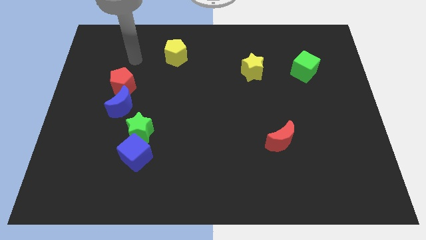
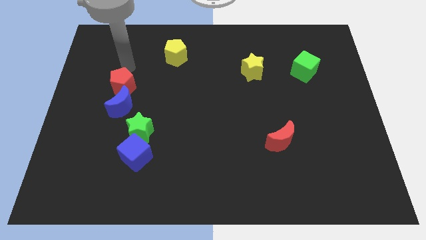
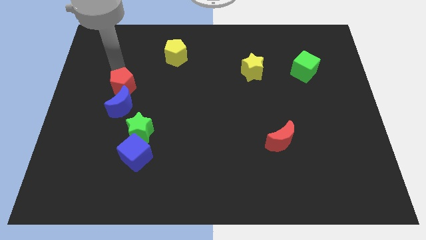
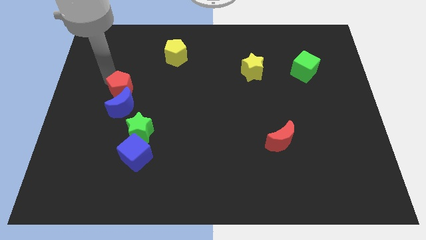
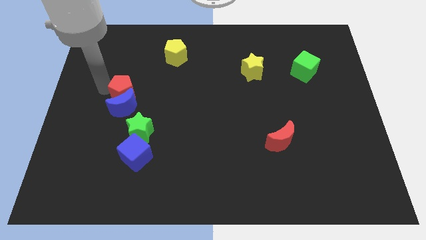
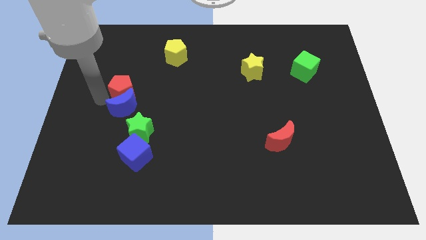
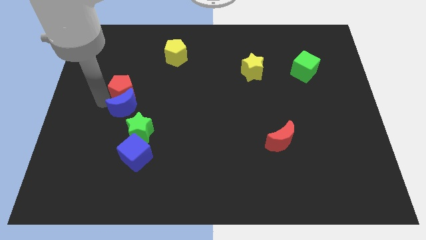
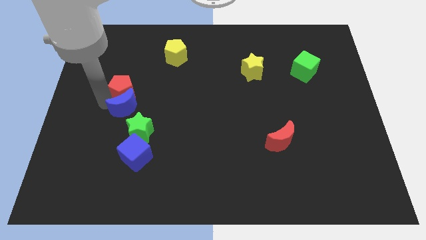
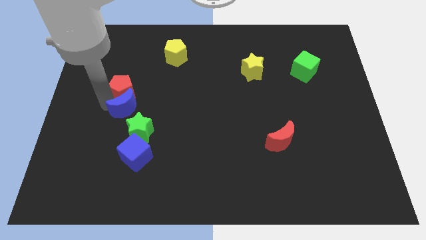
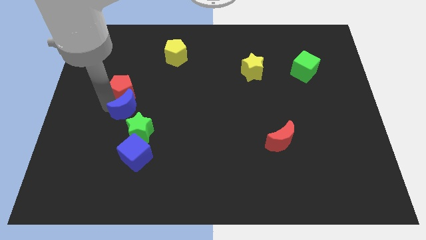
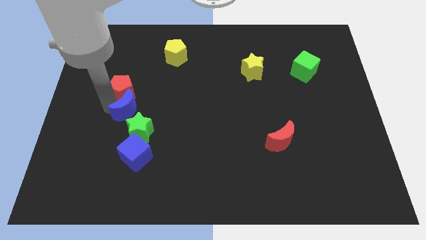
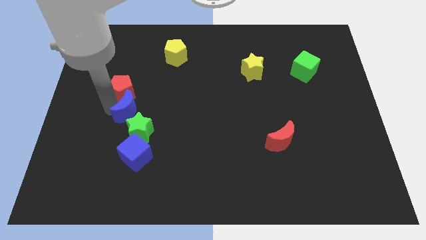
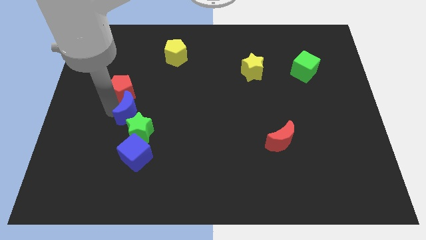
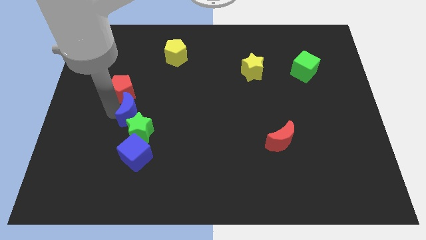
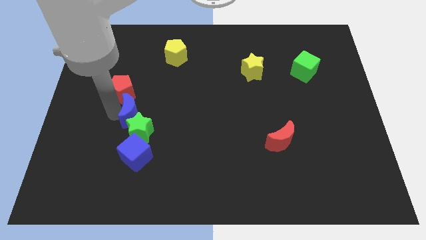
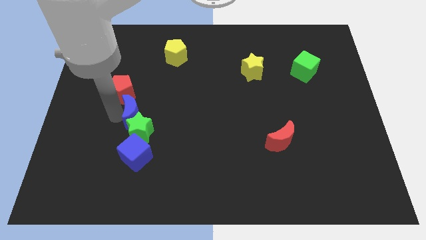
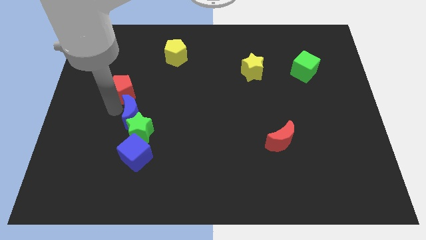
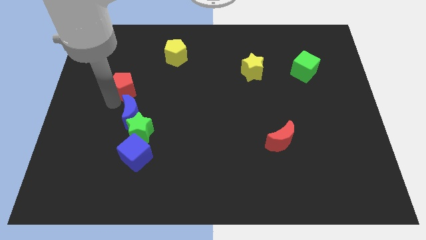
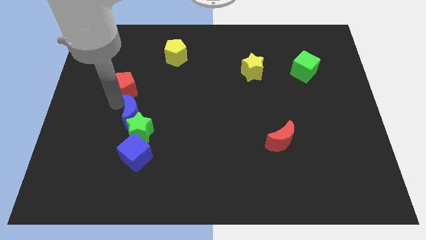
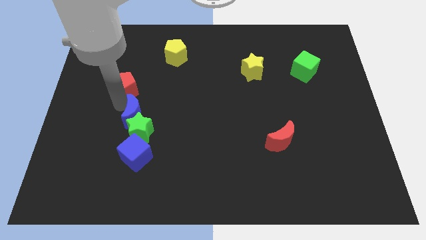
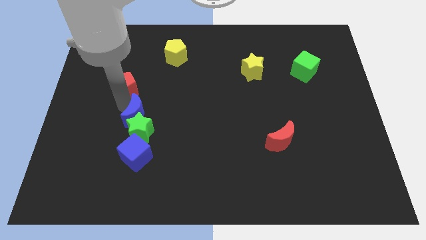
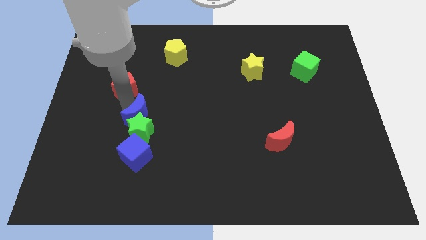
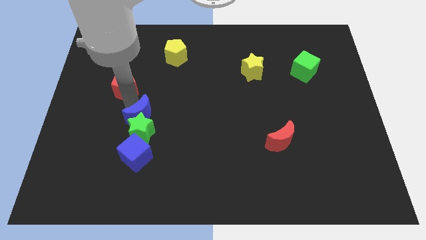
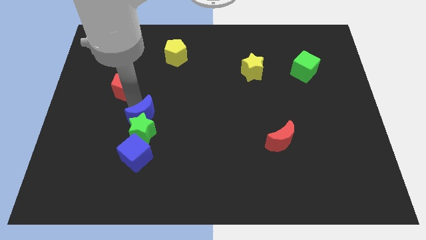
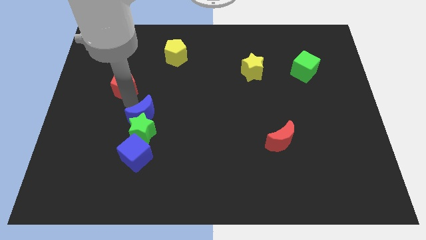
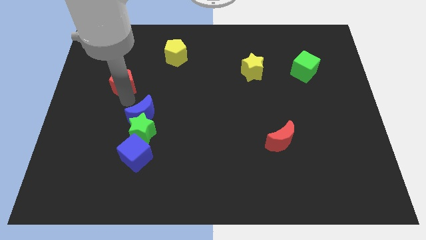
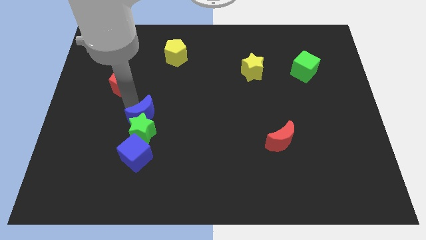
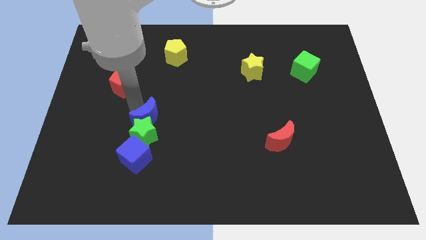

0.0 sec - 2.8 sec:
slightly slide the blue moon down and to the right diagonally

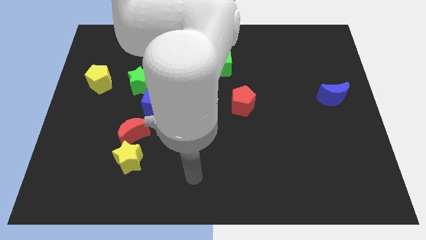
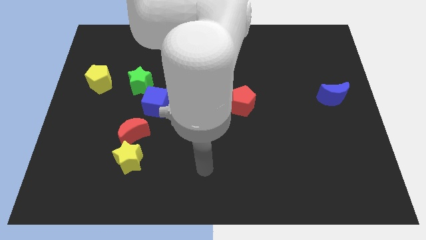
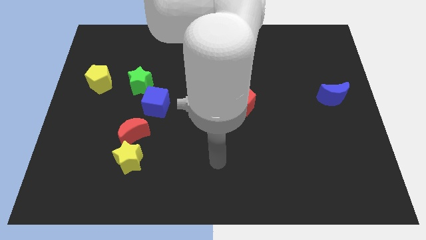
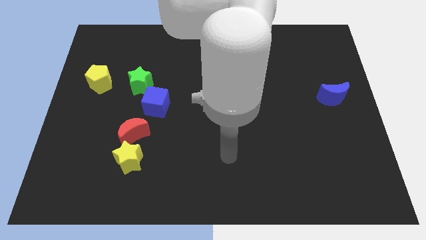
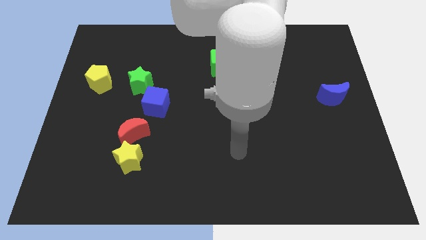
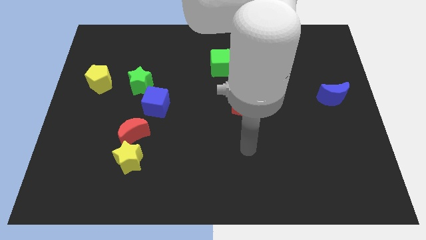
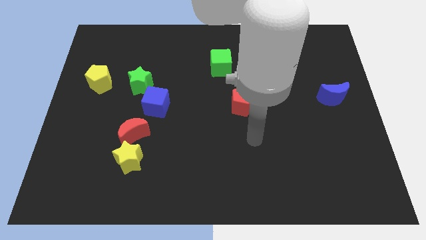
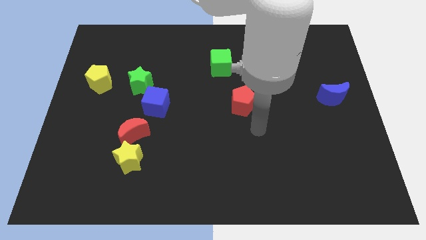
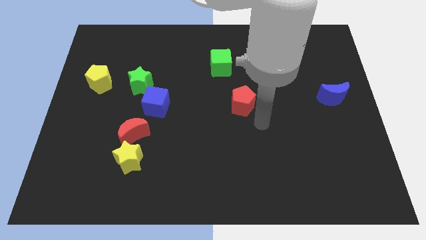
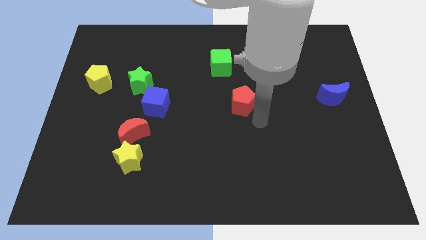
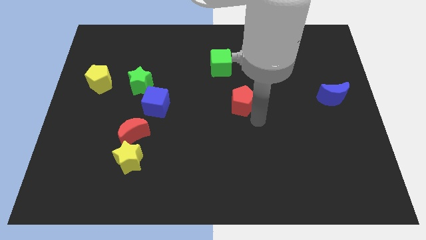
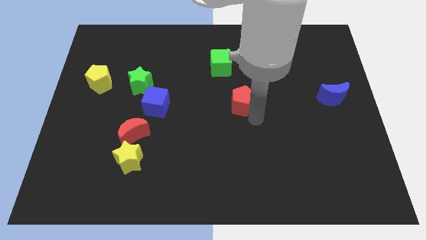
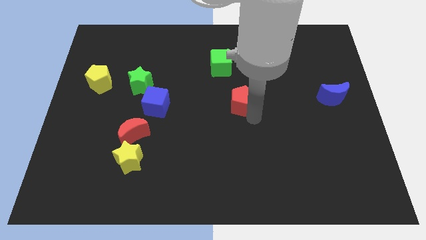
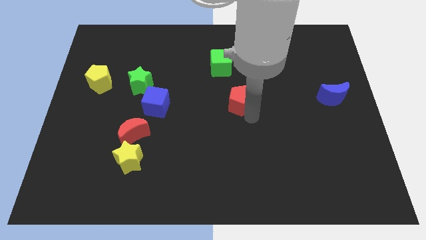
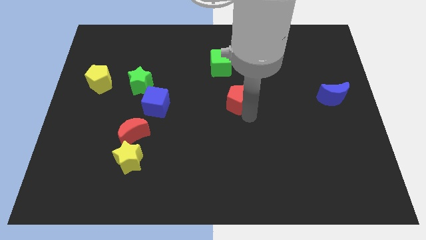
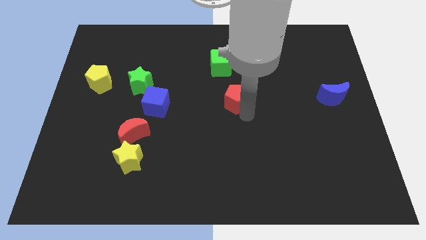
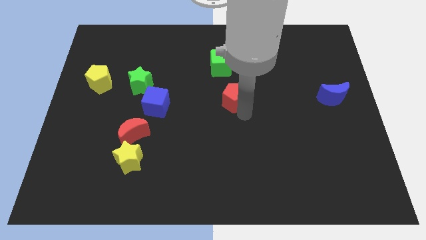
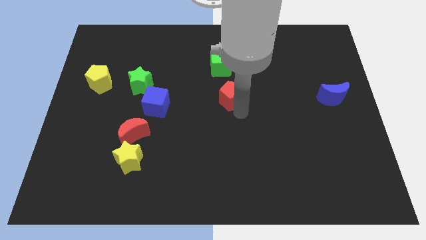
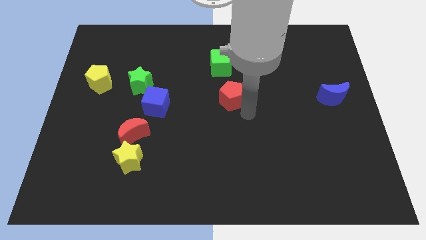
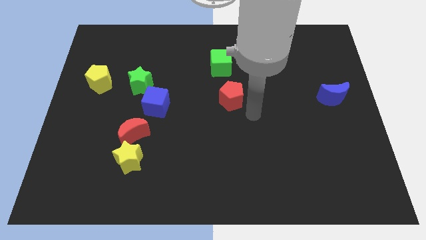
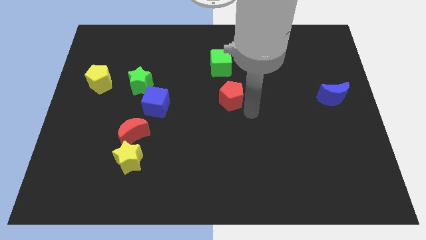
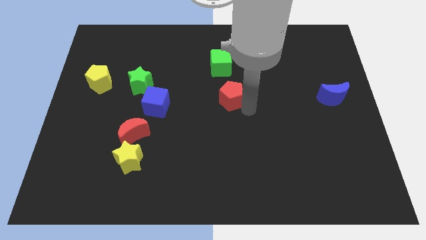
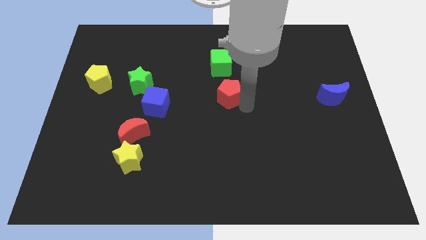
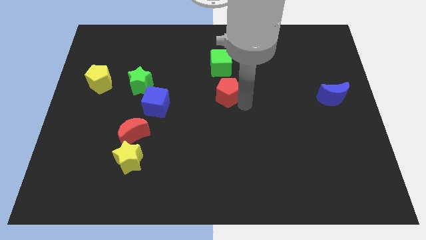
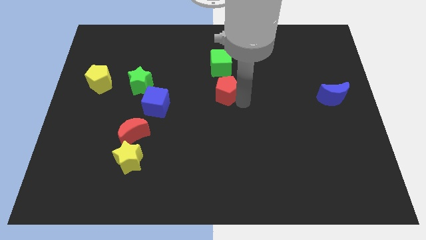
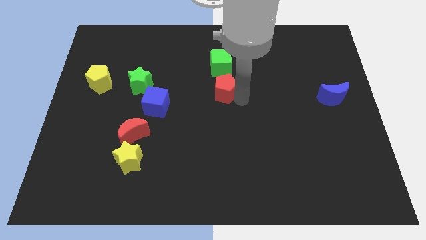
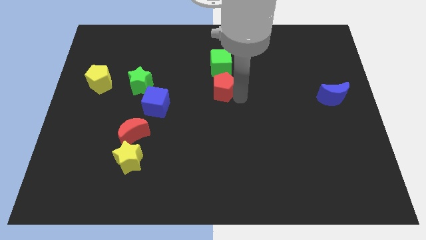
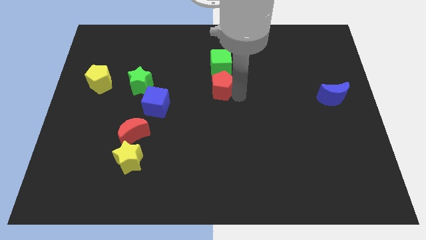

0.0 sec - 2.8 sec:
slide the red pentagon slightly upwards and to the left

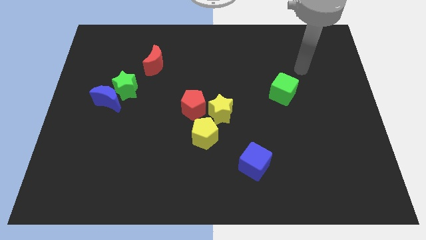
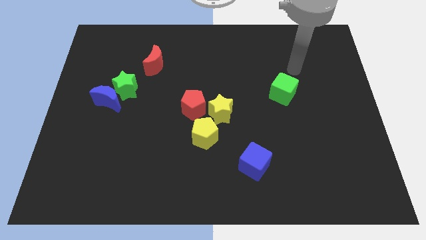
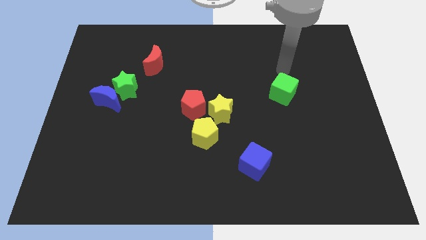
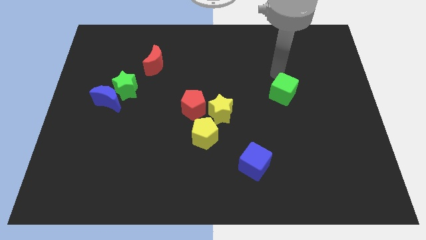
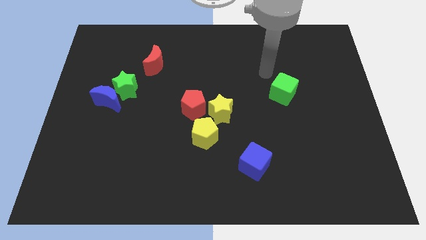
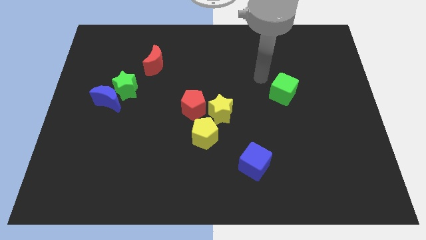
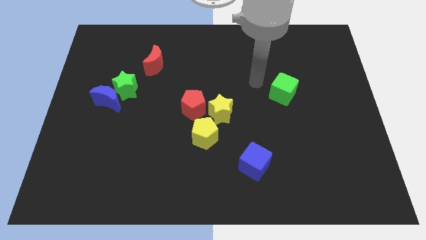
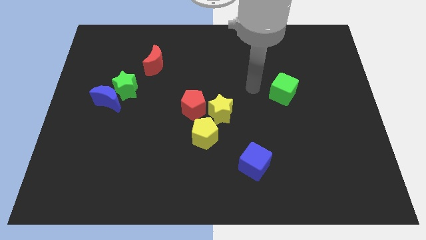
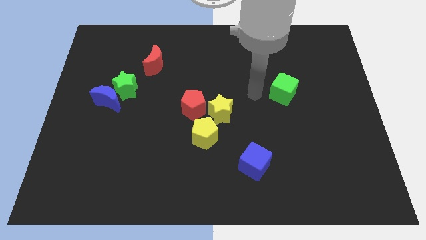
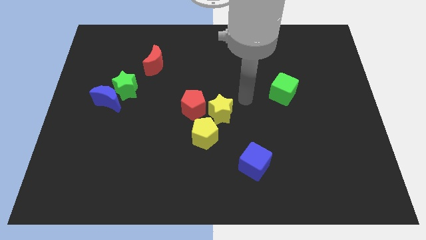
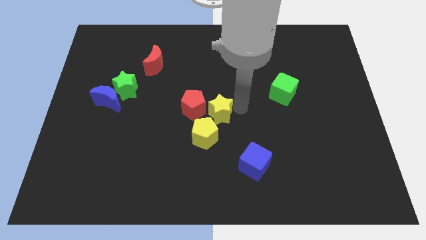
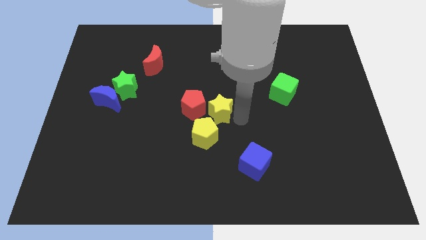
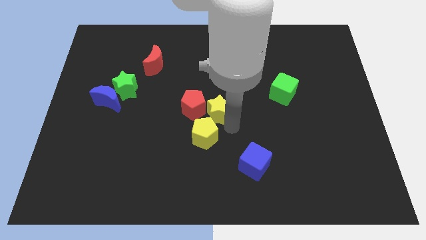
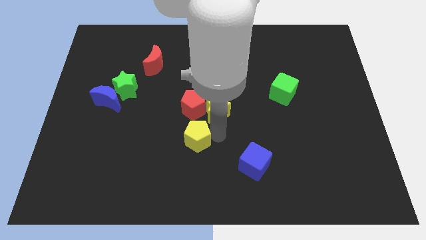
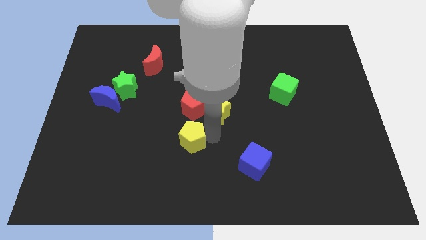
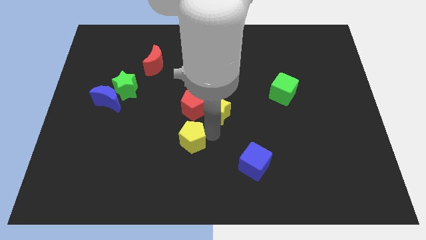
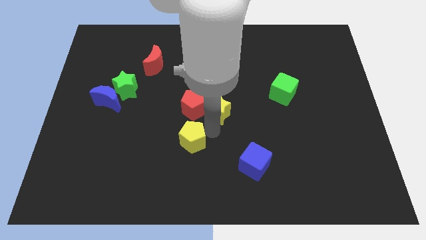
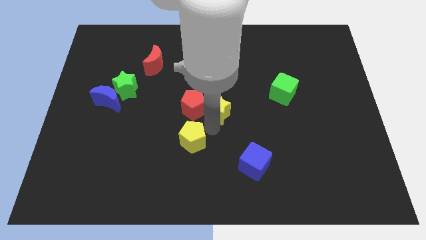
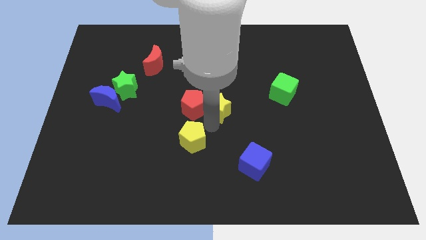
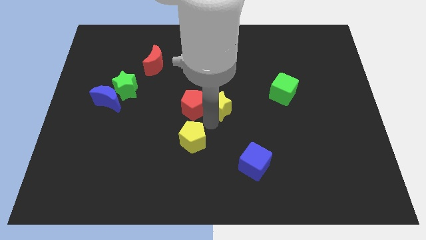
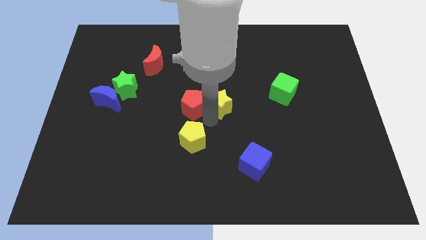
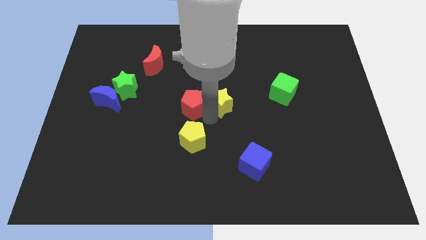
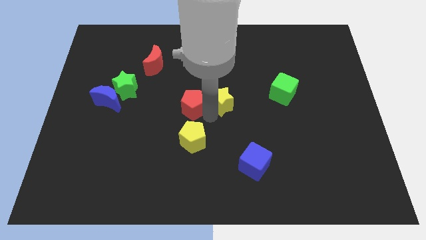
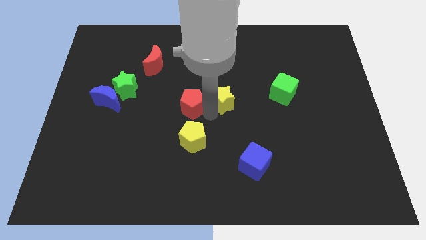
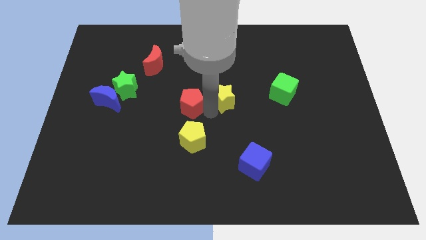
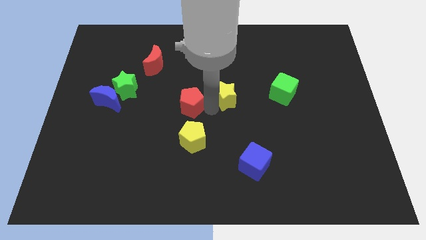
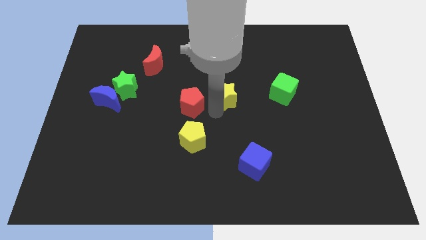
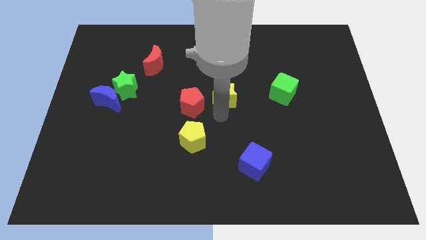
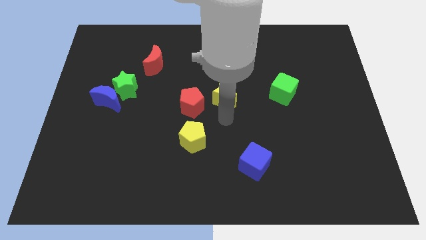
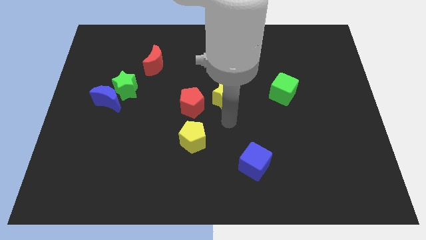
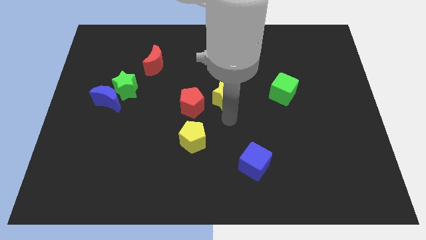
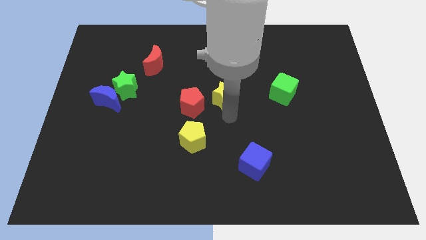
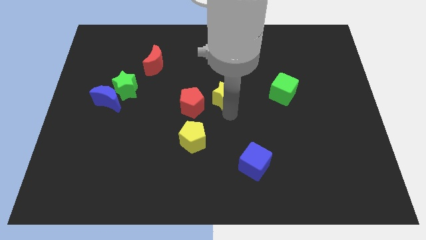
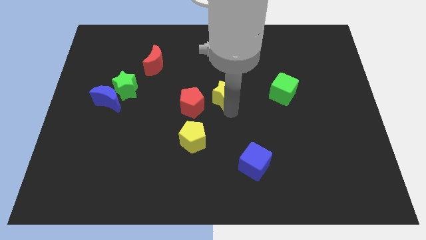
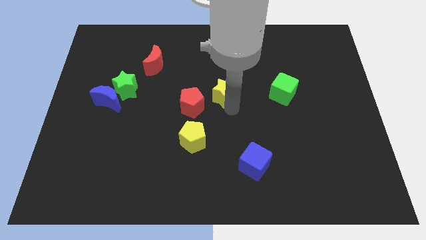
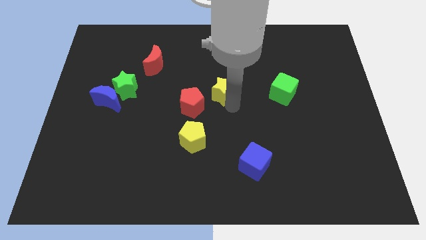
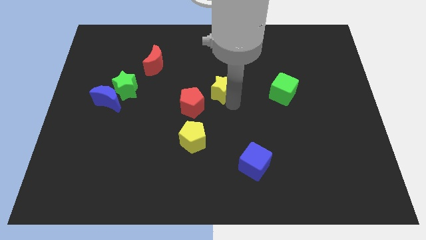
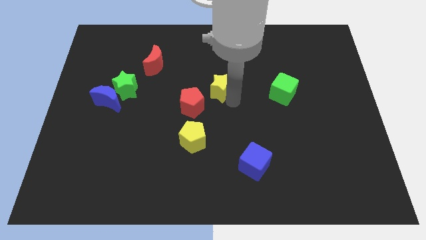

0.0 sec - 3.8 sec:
move the yellow star up somewhat
